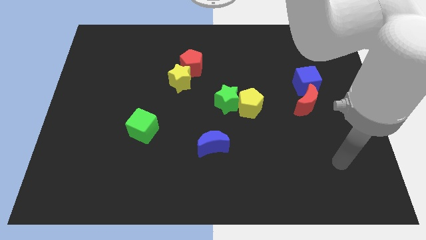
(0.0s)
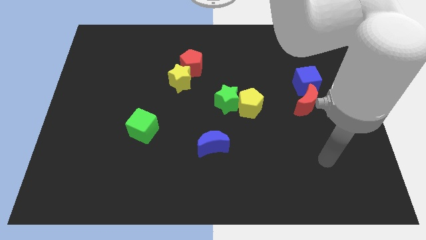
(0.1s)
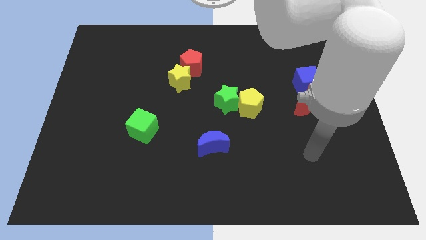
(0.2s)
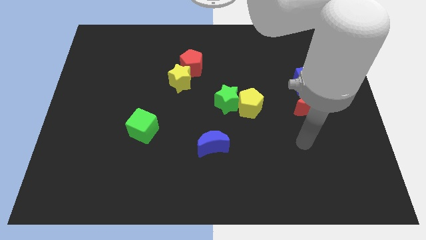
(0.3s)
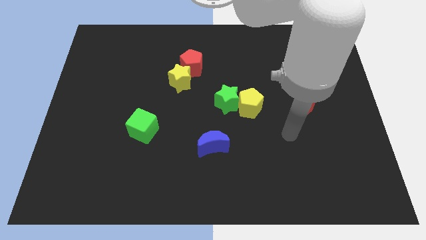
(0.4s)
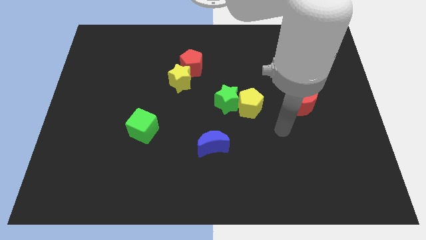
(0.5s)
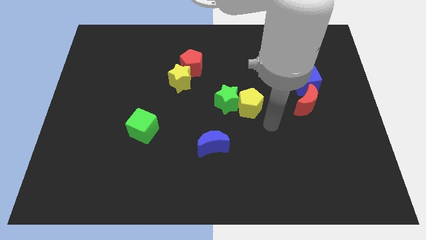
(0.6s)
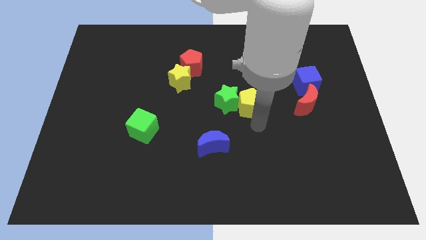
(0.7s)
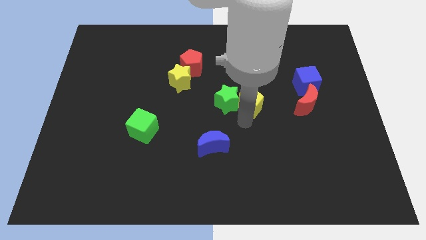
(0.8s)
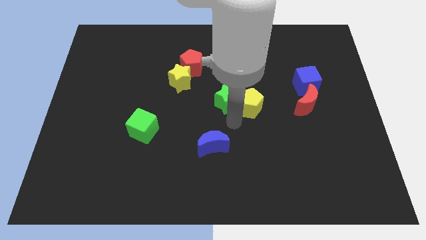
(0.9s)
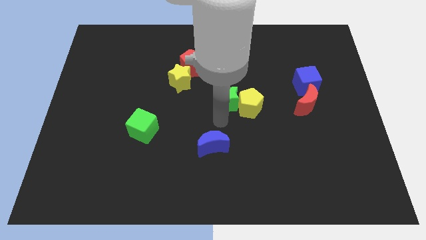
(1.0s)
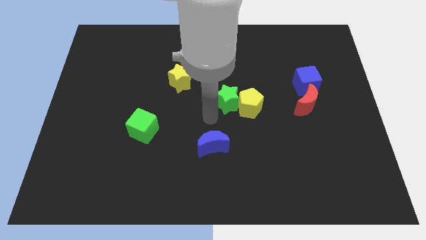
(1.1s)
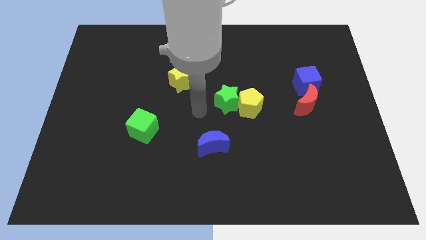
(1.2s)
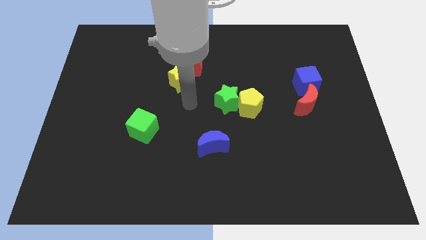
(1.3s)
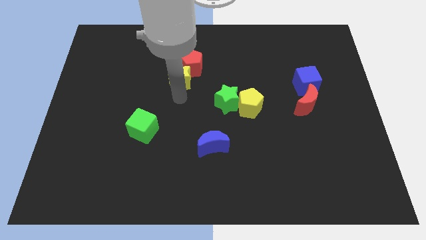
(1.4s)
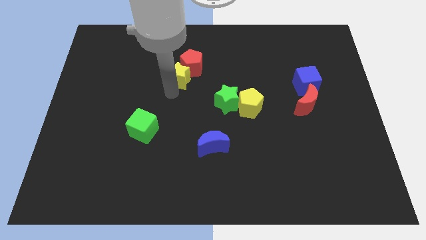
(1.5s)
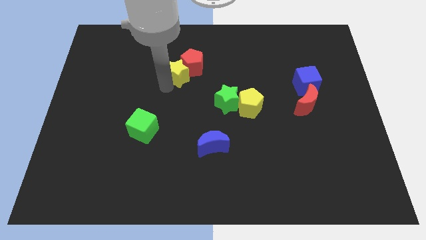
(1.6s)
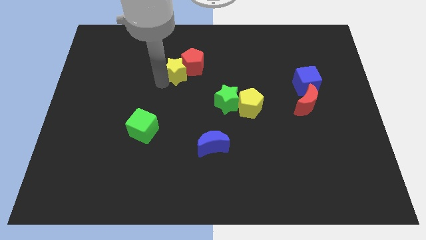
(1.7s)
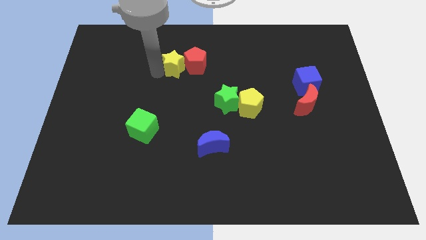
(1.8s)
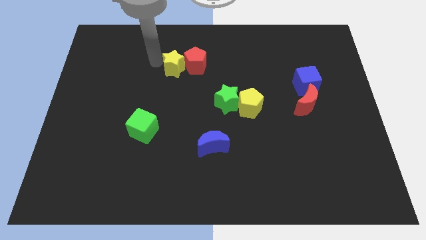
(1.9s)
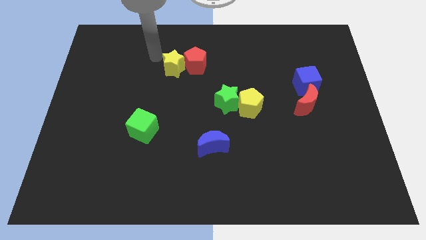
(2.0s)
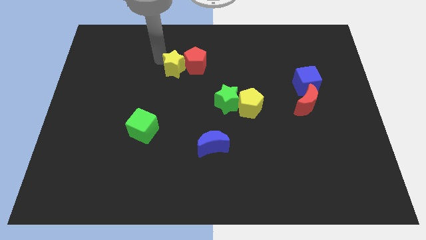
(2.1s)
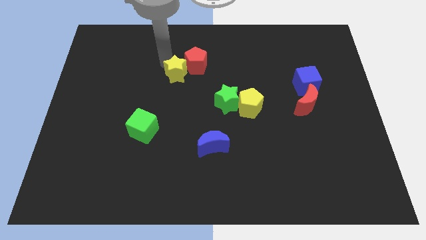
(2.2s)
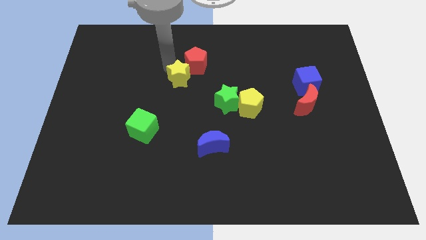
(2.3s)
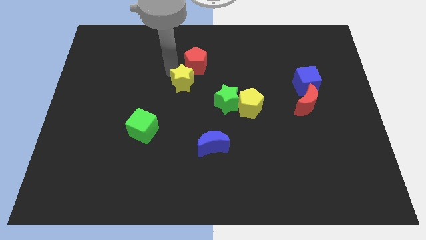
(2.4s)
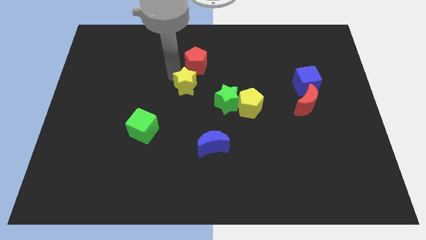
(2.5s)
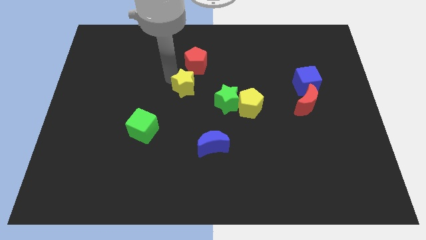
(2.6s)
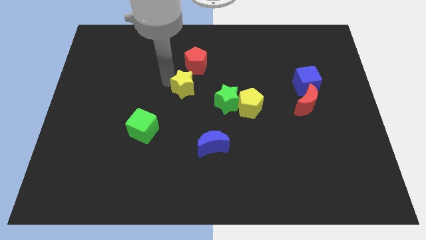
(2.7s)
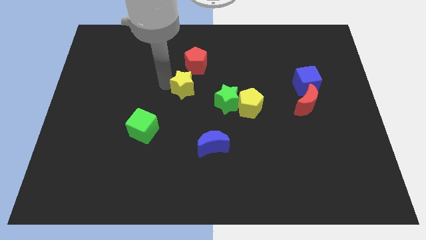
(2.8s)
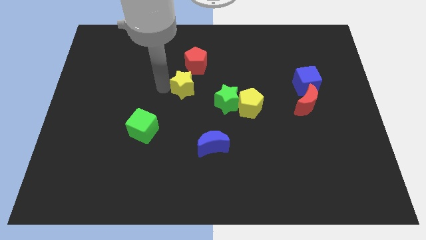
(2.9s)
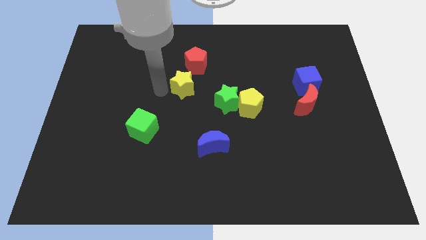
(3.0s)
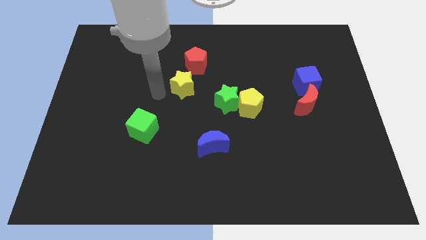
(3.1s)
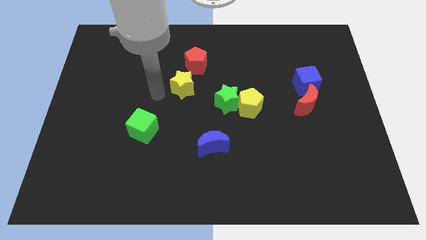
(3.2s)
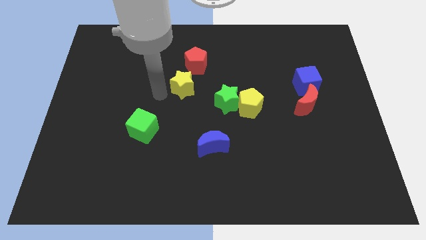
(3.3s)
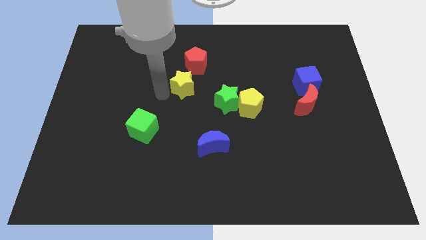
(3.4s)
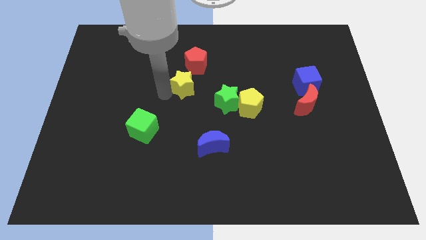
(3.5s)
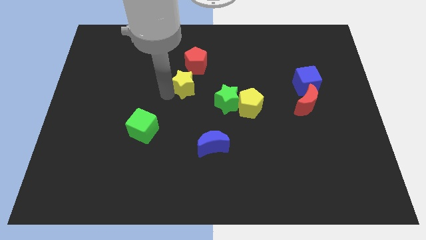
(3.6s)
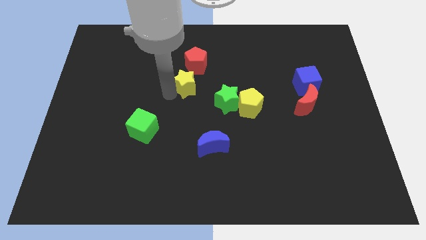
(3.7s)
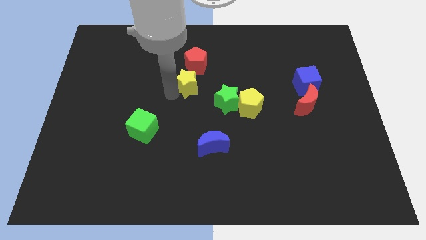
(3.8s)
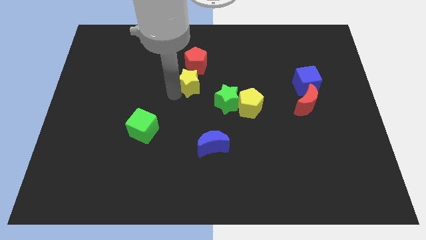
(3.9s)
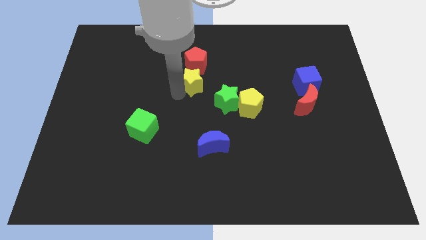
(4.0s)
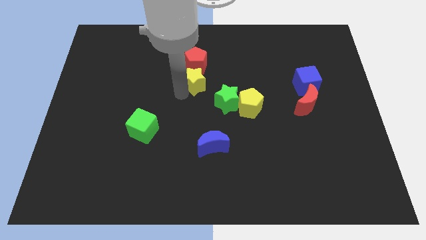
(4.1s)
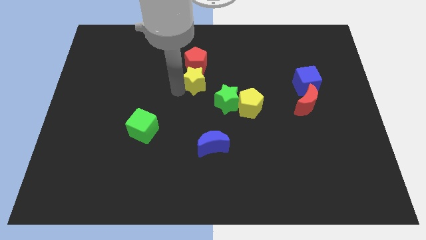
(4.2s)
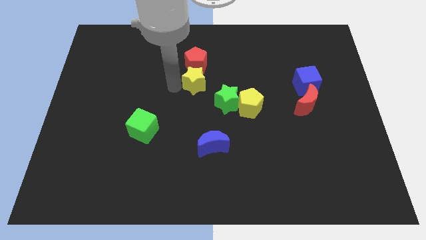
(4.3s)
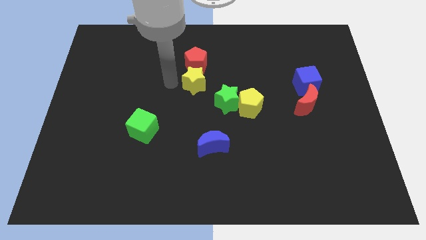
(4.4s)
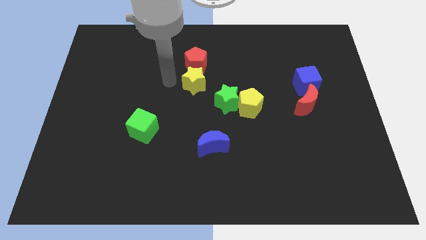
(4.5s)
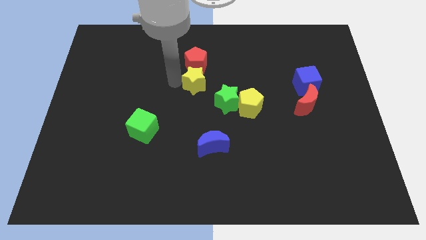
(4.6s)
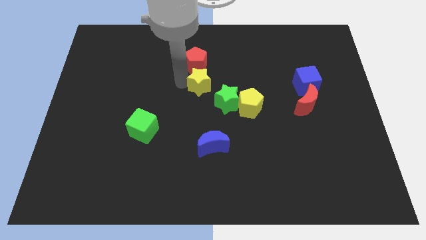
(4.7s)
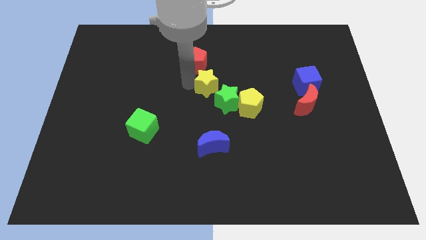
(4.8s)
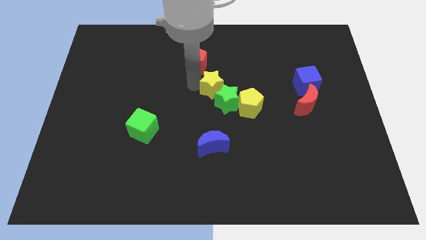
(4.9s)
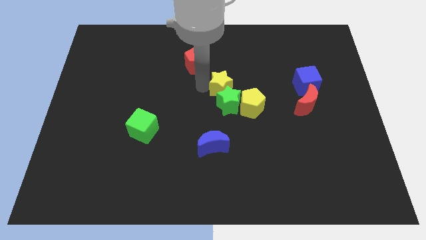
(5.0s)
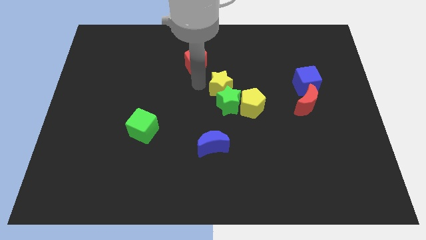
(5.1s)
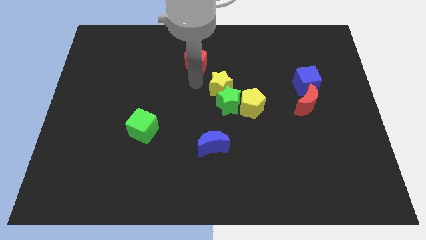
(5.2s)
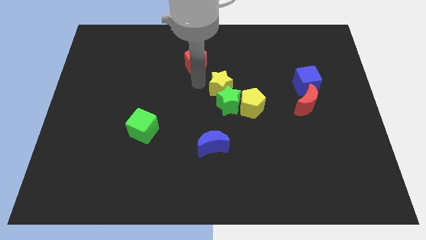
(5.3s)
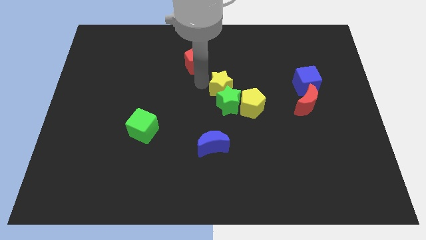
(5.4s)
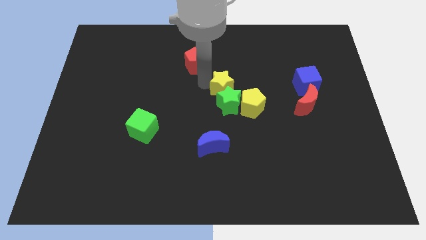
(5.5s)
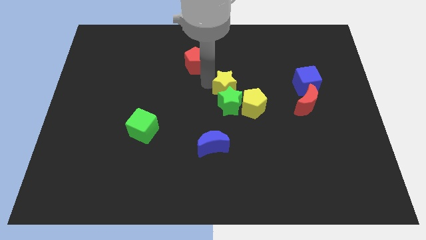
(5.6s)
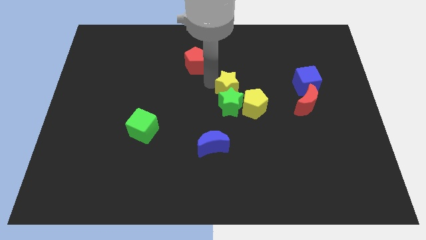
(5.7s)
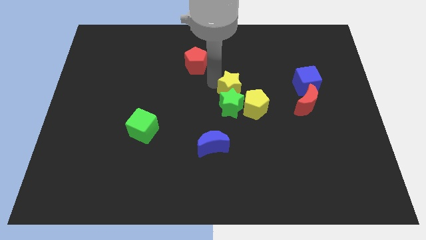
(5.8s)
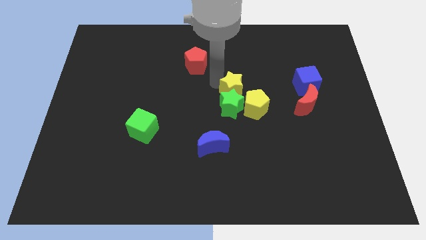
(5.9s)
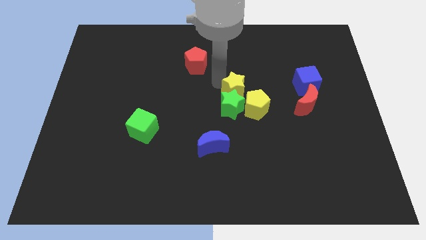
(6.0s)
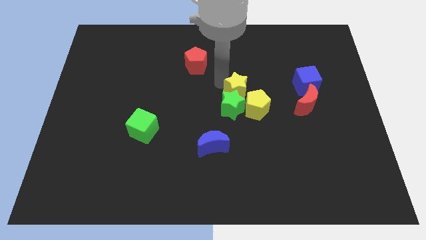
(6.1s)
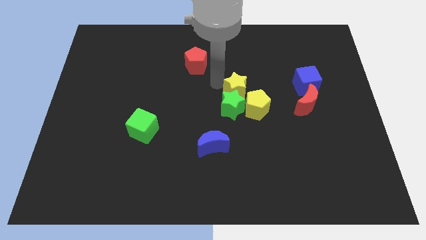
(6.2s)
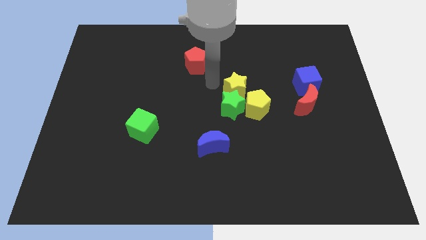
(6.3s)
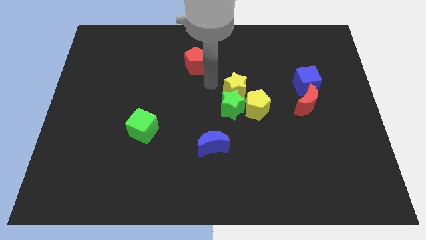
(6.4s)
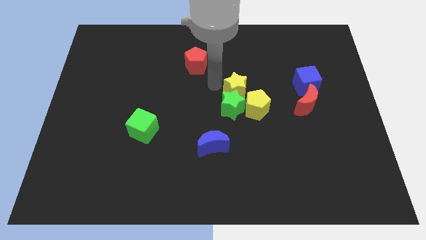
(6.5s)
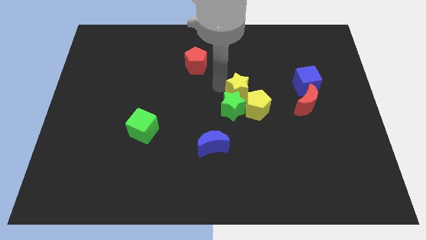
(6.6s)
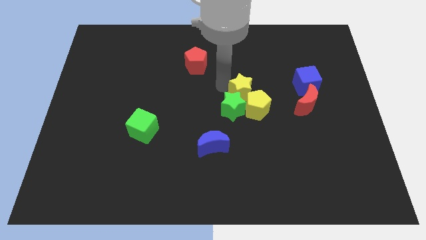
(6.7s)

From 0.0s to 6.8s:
slide the yellow star close to the yellow pentagon

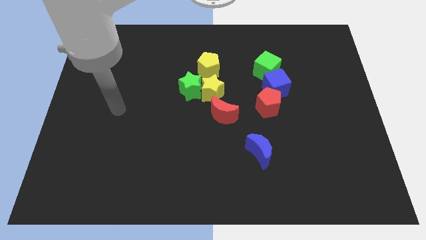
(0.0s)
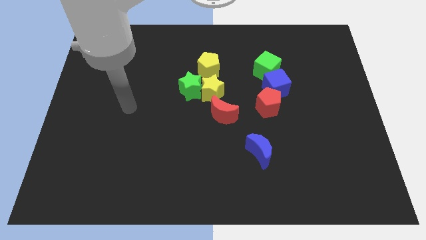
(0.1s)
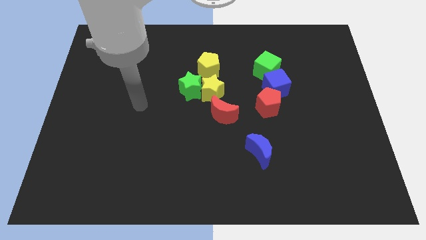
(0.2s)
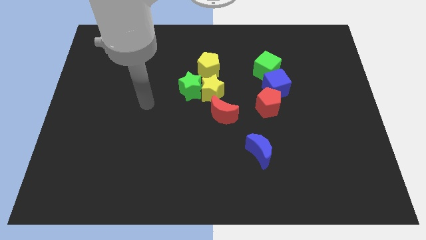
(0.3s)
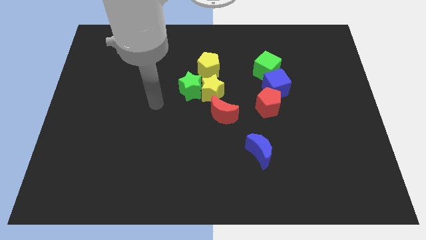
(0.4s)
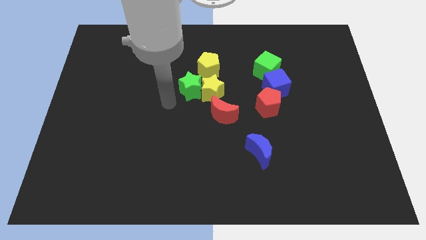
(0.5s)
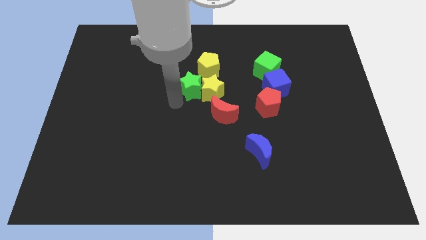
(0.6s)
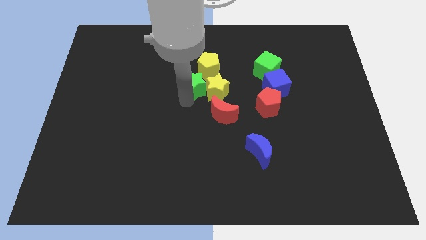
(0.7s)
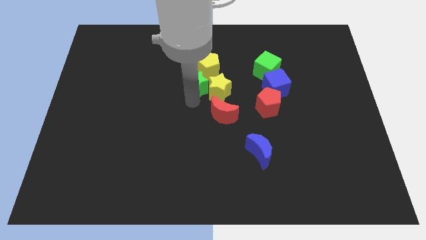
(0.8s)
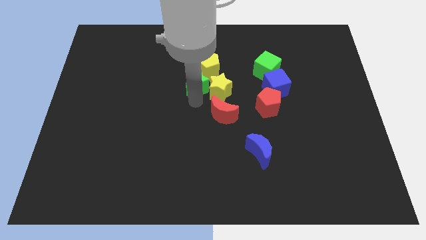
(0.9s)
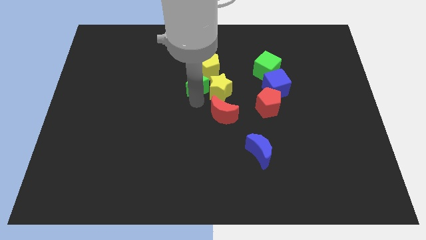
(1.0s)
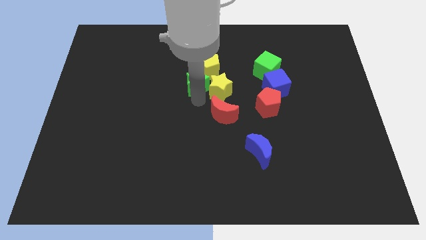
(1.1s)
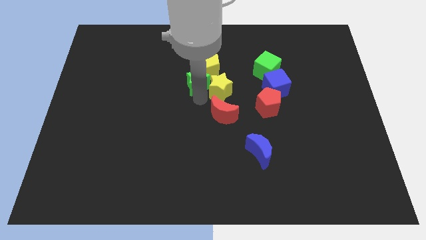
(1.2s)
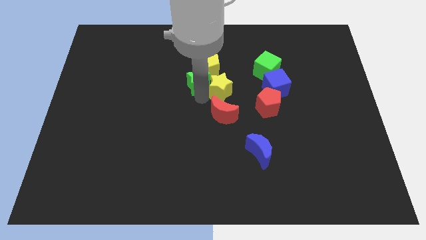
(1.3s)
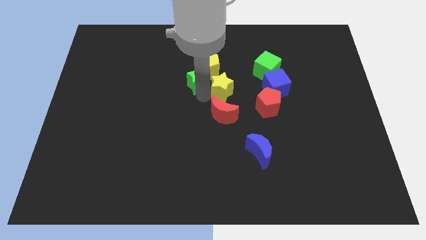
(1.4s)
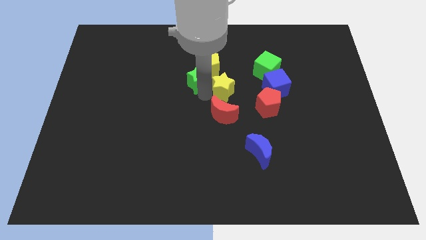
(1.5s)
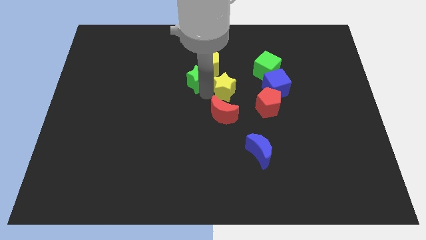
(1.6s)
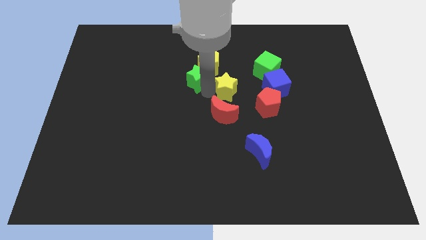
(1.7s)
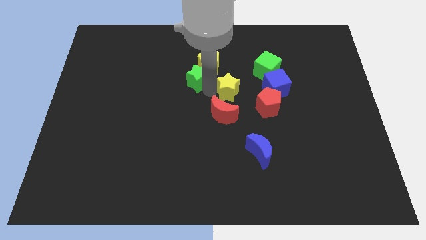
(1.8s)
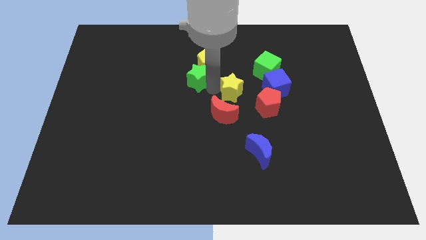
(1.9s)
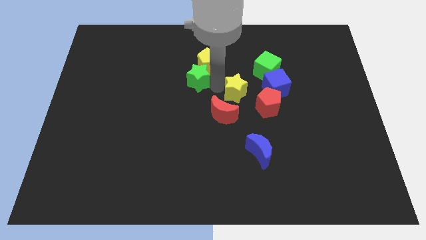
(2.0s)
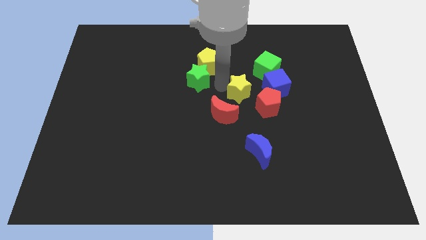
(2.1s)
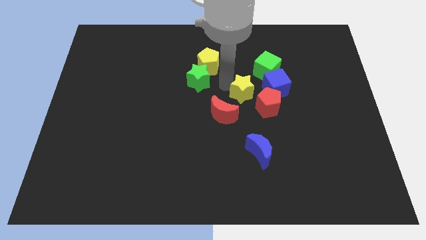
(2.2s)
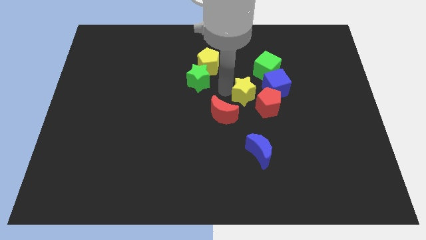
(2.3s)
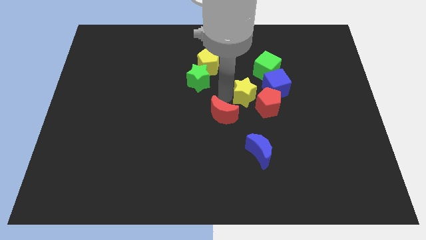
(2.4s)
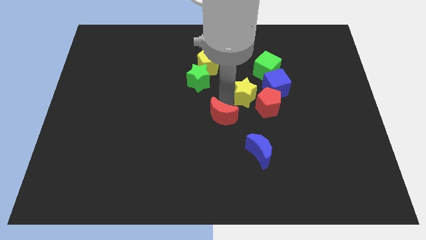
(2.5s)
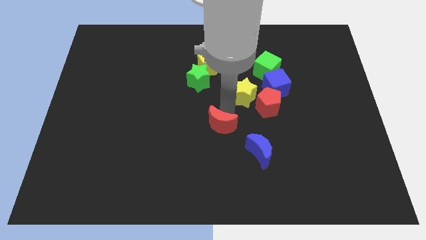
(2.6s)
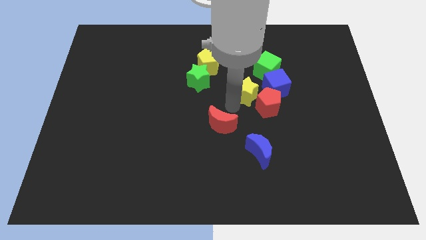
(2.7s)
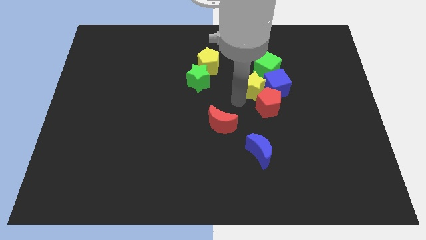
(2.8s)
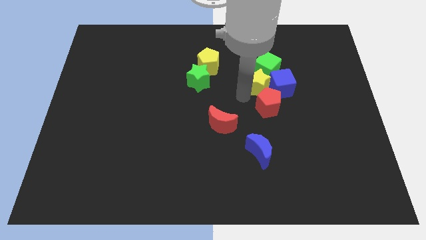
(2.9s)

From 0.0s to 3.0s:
move the yellow star towards the green cube
